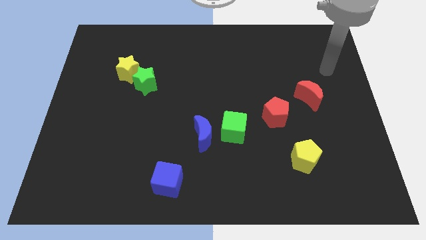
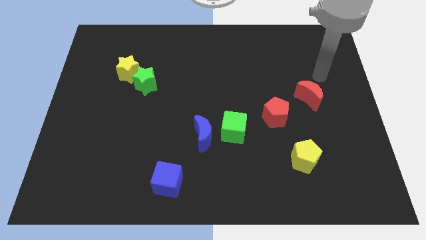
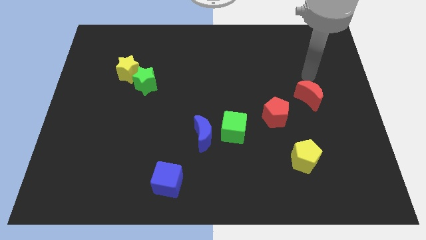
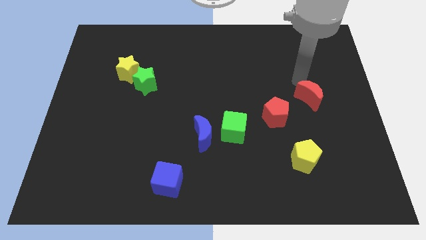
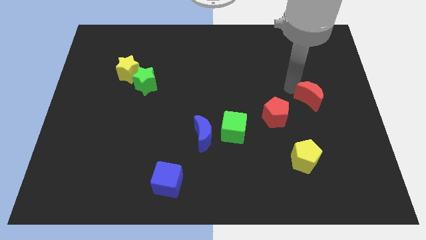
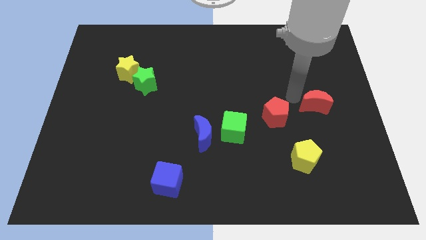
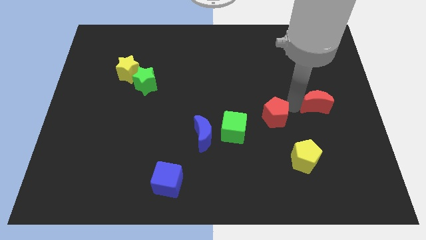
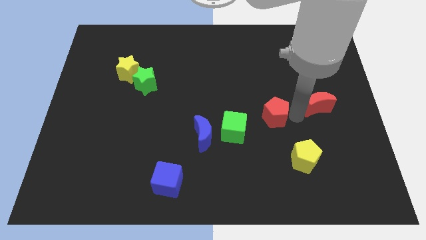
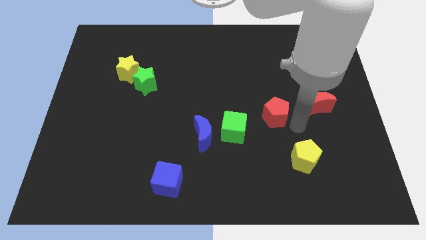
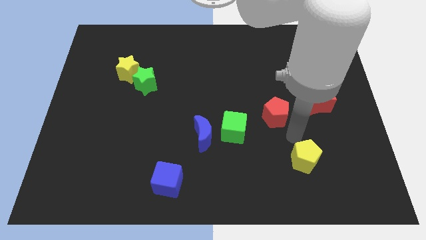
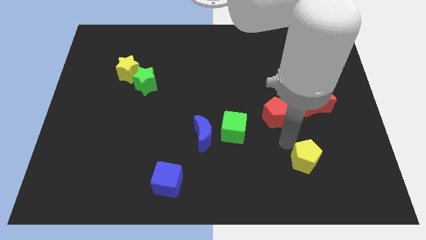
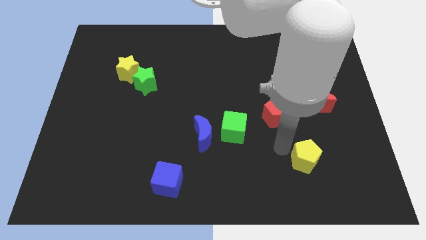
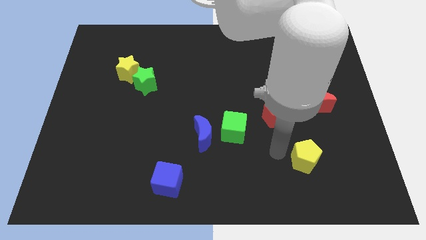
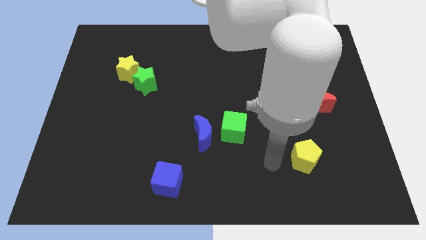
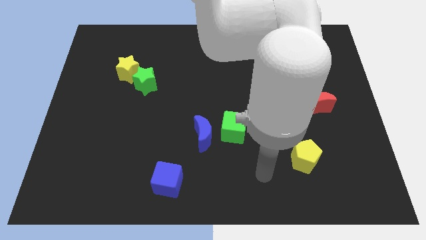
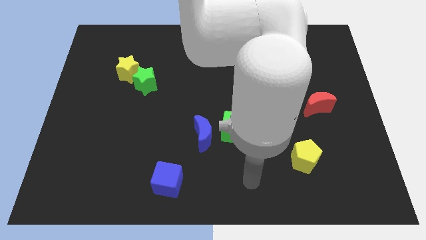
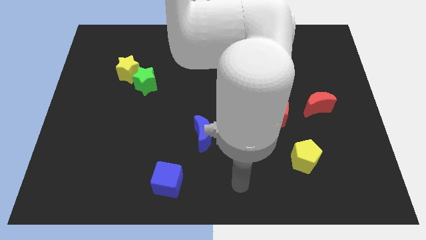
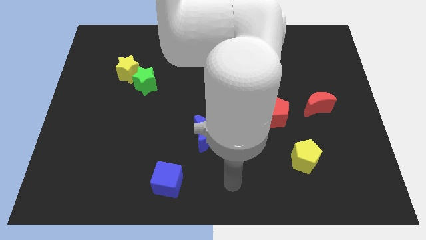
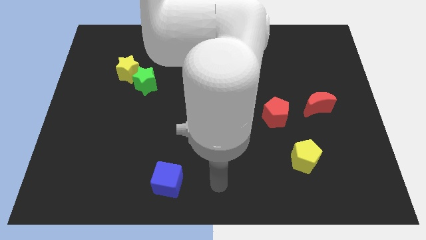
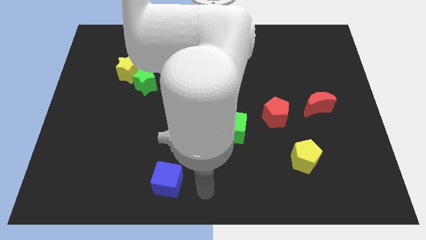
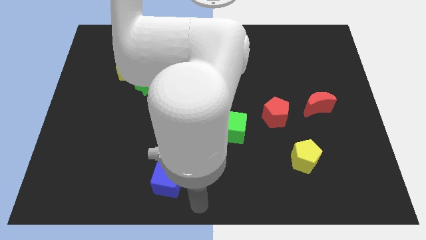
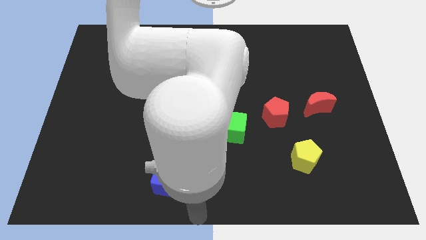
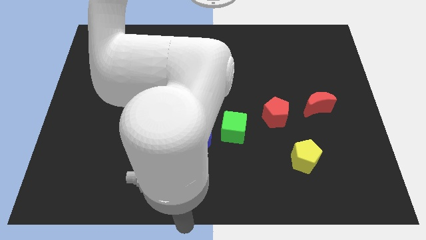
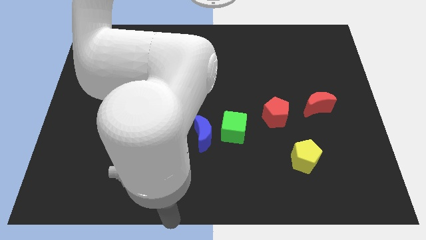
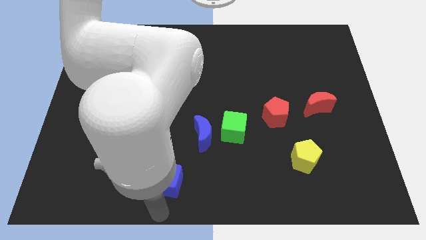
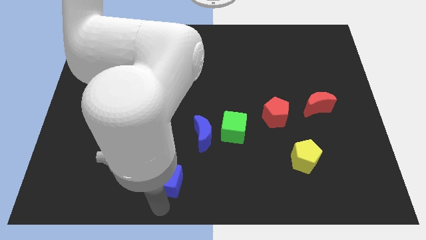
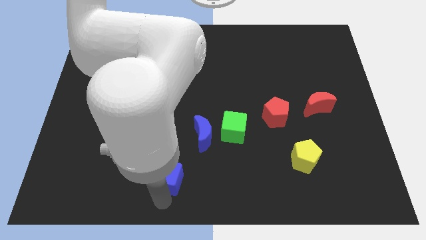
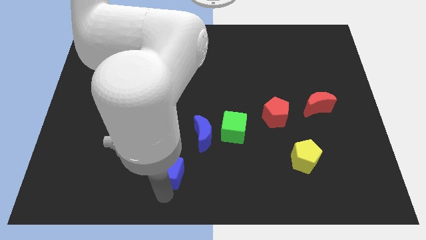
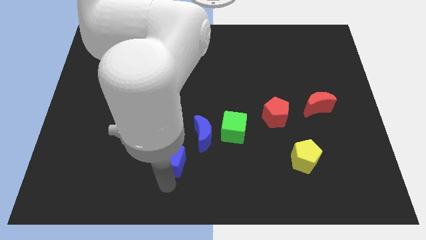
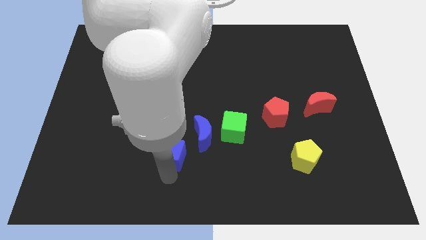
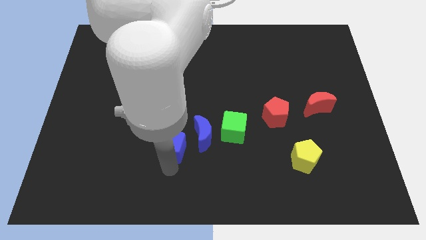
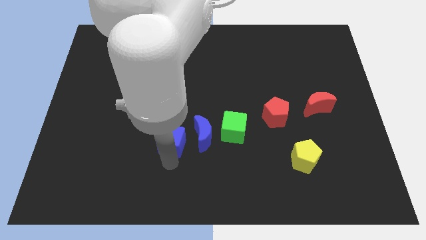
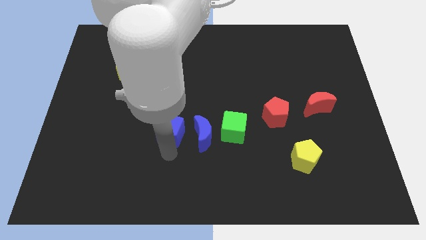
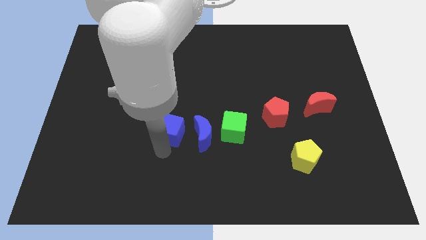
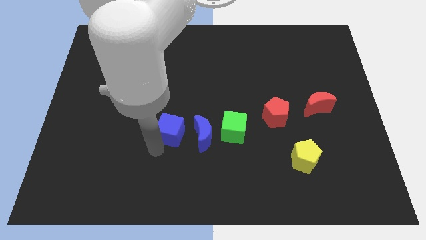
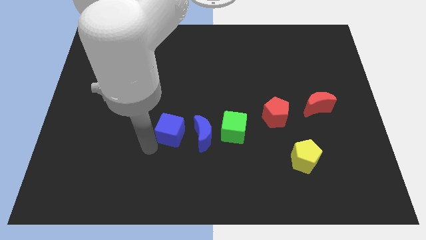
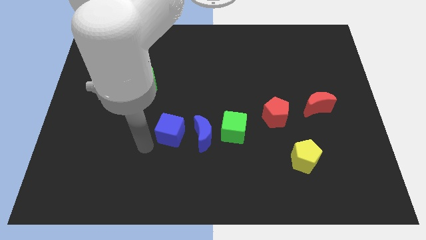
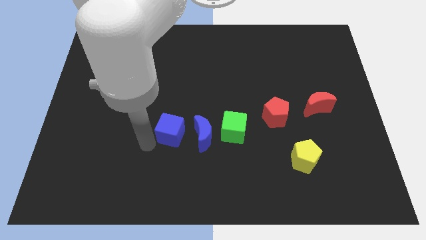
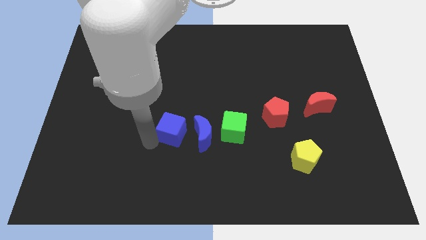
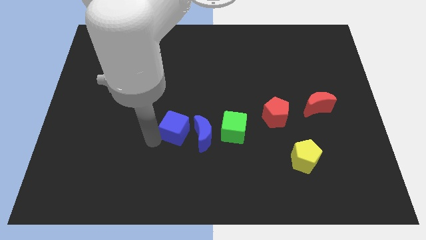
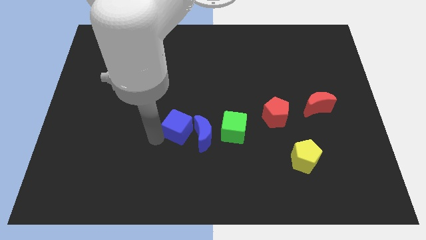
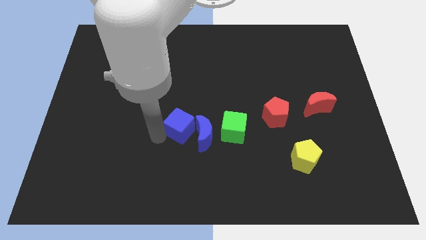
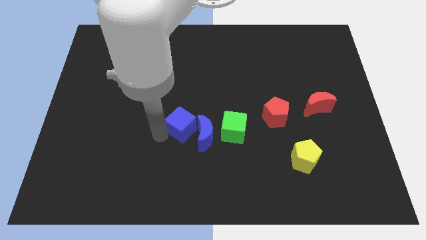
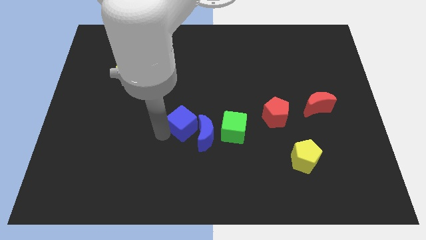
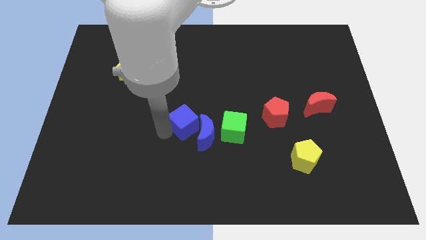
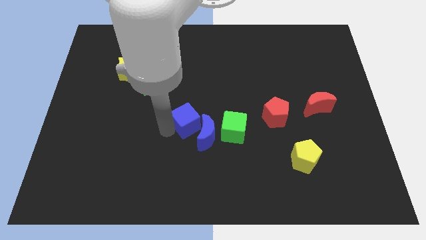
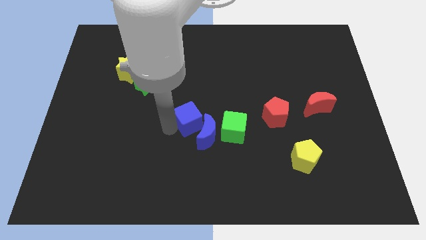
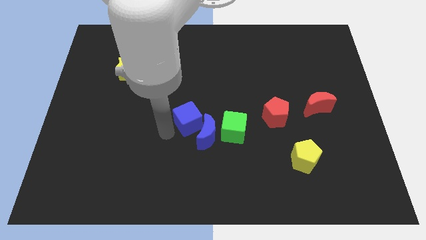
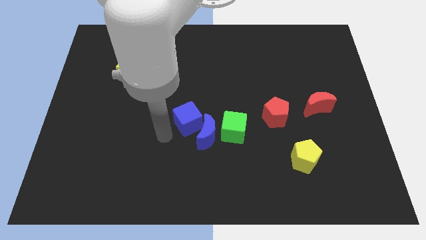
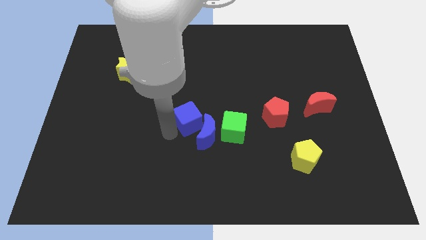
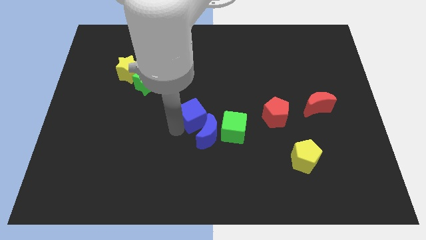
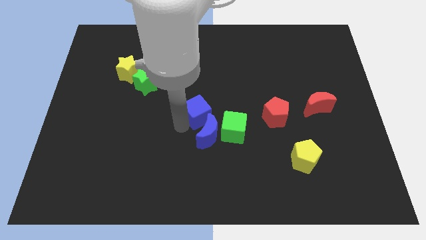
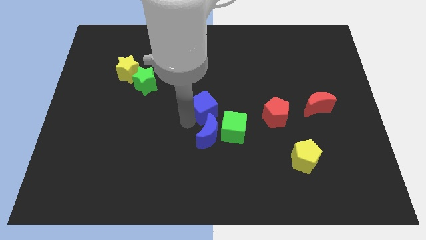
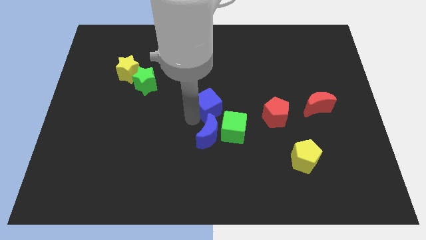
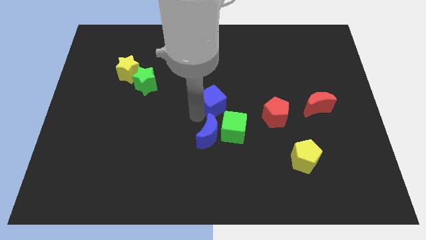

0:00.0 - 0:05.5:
move the blue cube above the green cube

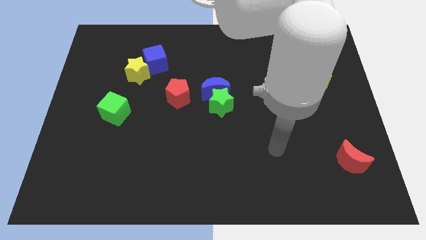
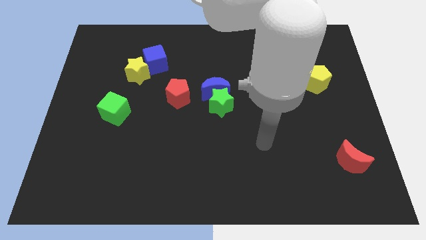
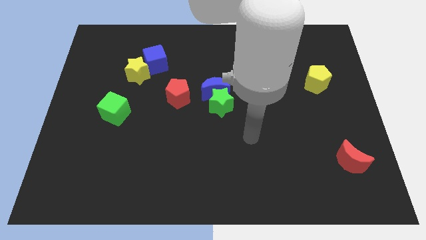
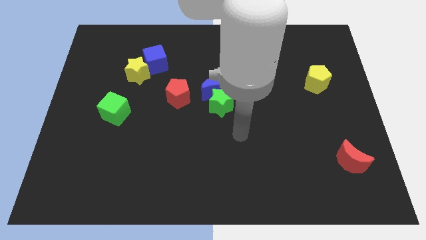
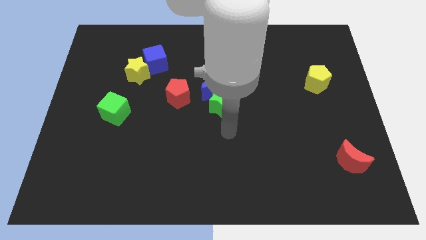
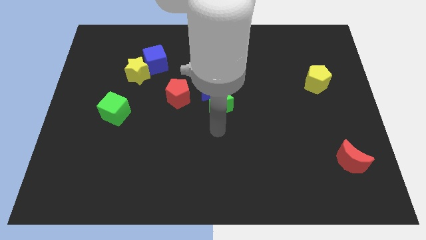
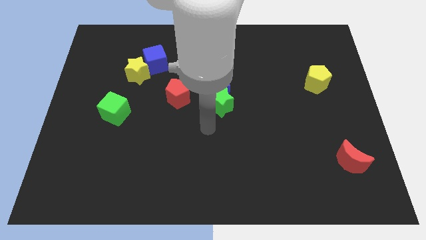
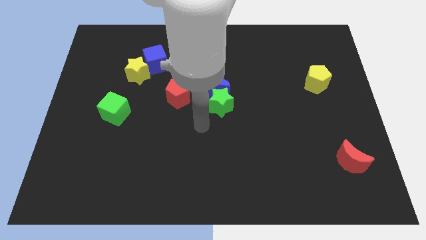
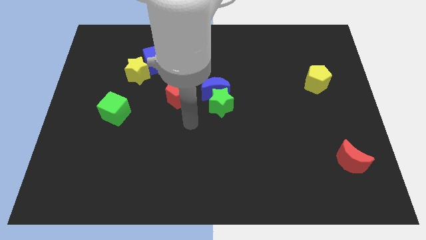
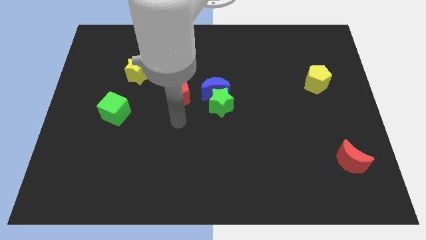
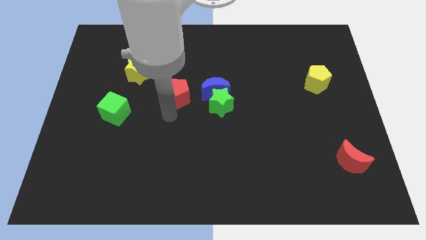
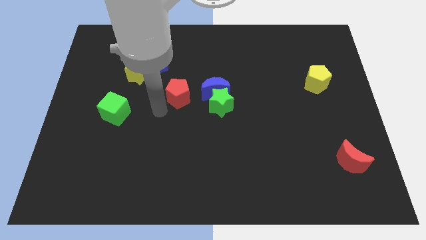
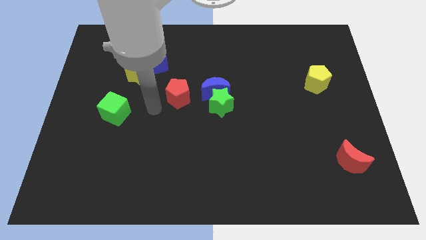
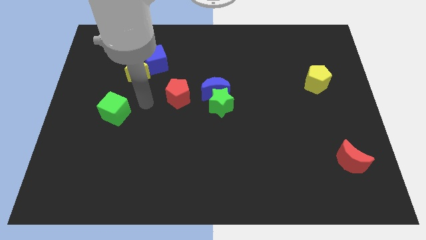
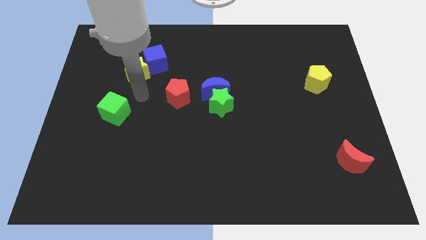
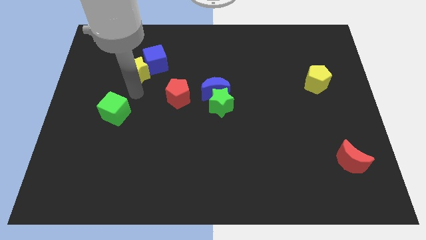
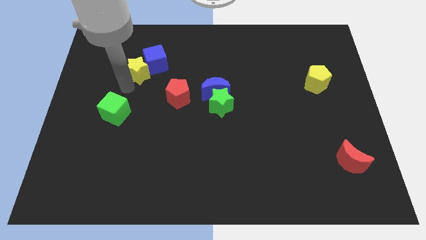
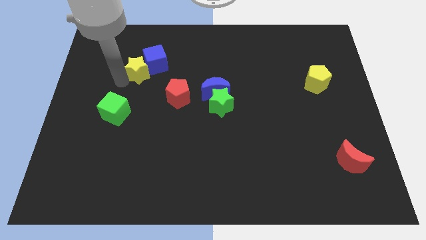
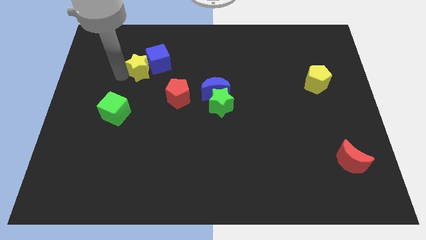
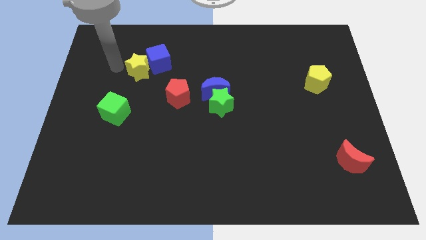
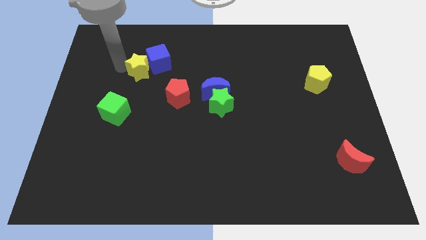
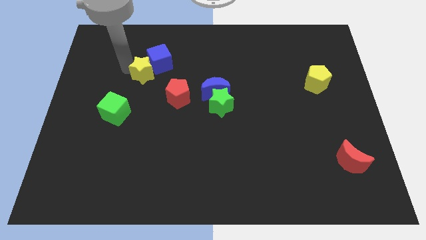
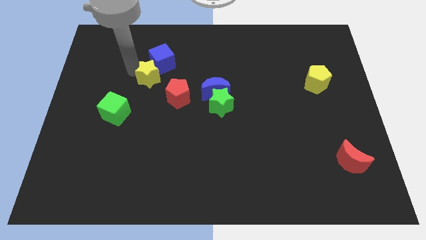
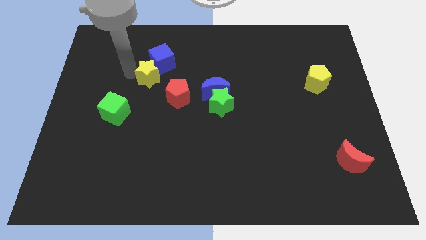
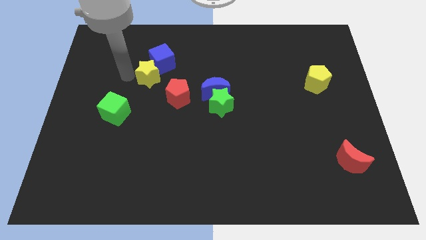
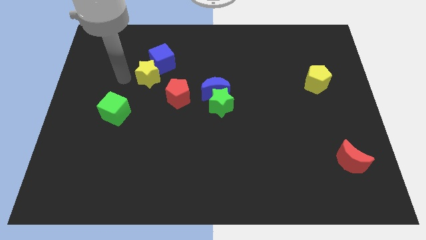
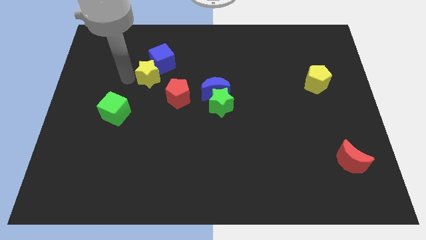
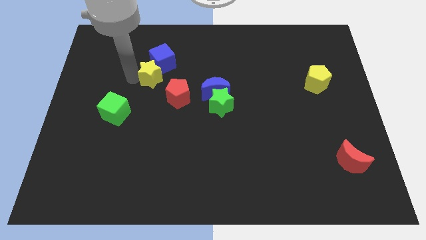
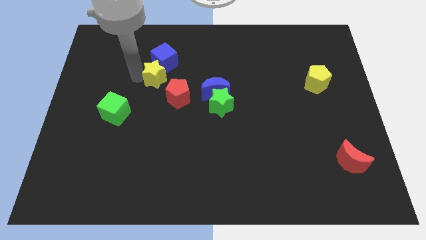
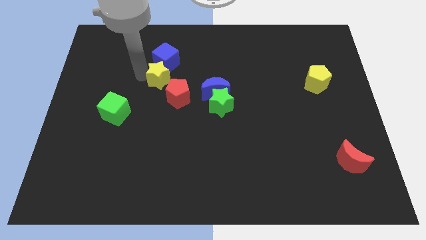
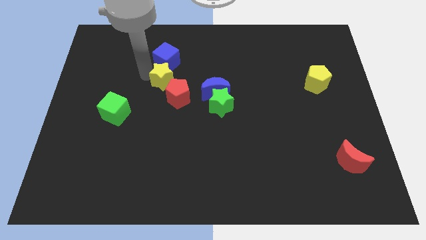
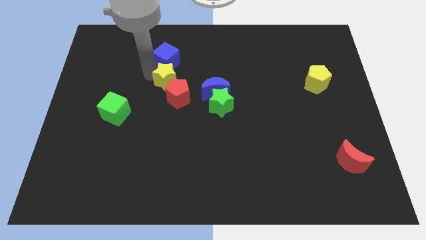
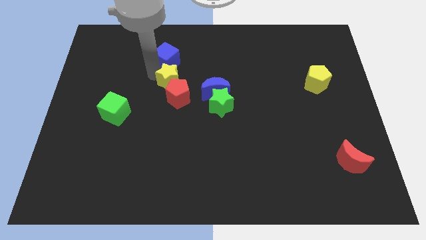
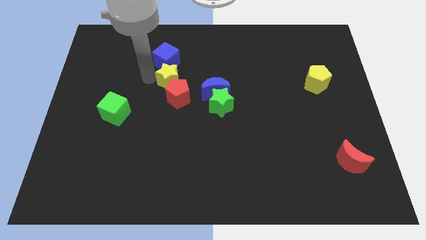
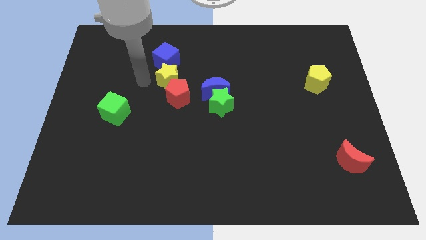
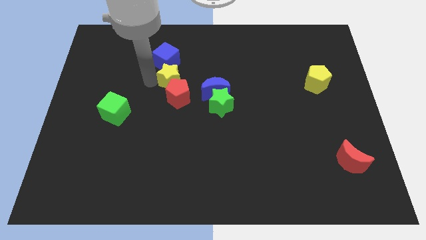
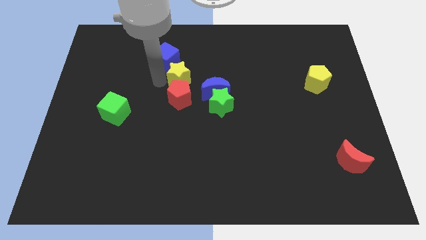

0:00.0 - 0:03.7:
move the yellow star diagonally up and to the right of the red pentagon
